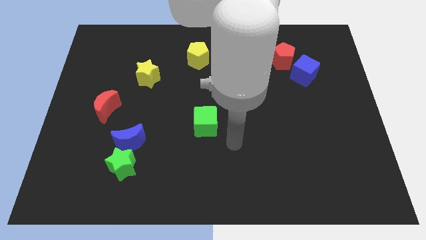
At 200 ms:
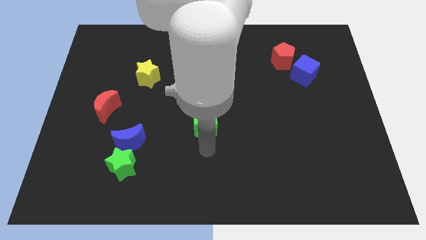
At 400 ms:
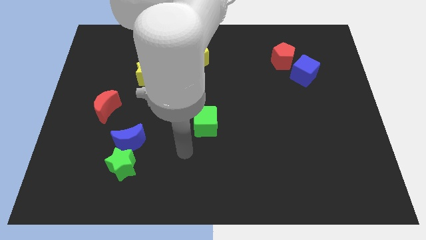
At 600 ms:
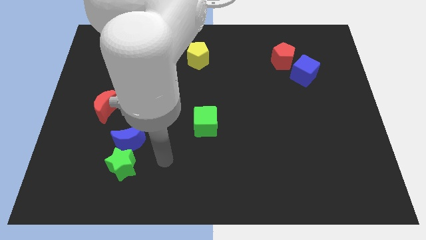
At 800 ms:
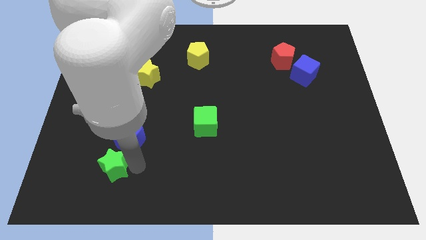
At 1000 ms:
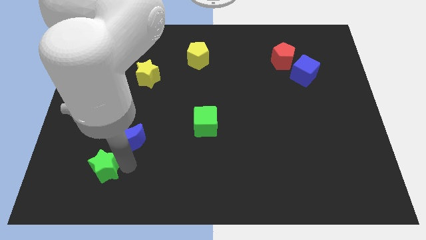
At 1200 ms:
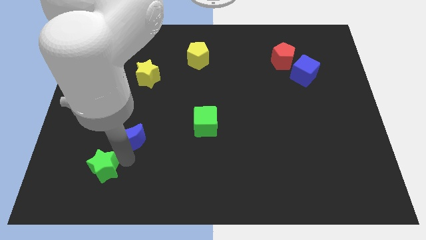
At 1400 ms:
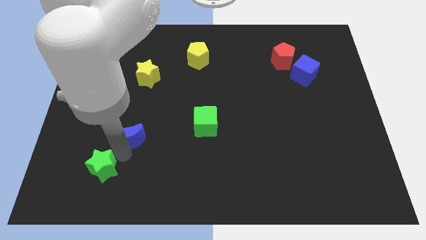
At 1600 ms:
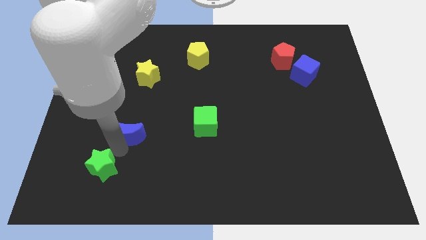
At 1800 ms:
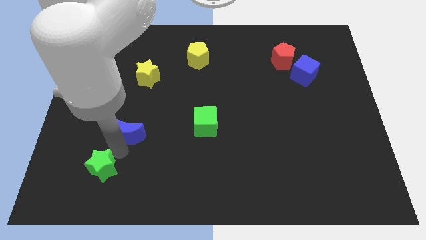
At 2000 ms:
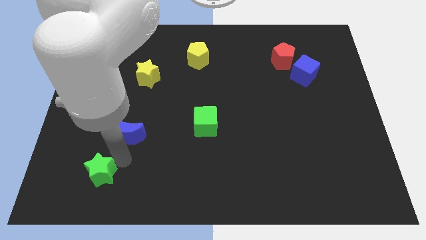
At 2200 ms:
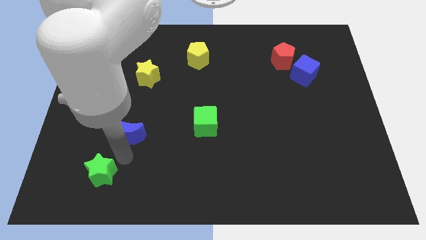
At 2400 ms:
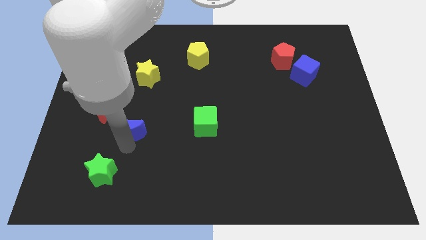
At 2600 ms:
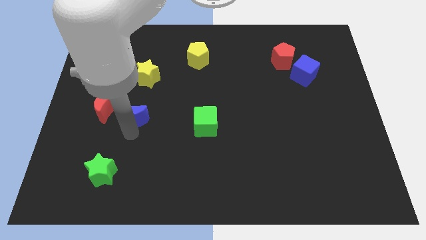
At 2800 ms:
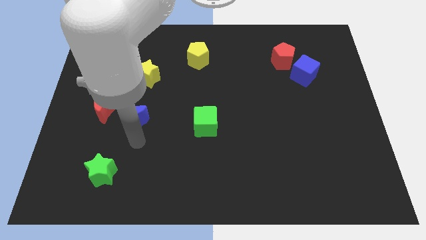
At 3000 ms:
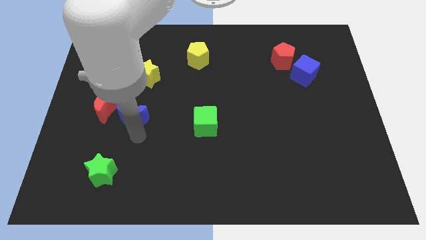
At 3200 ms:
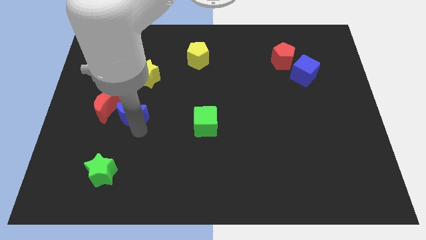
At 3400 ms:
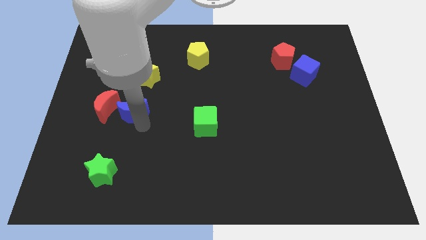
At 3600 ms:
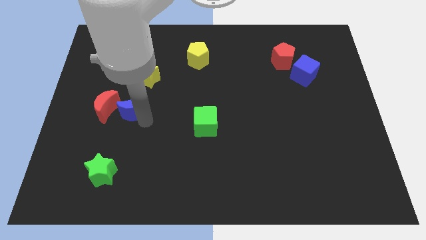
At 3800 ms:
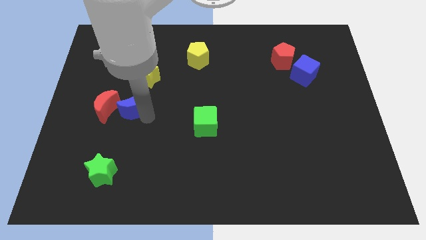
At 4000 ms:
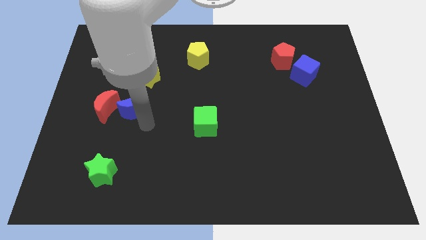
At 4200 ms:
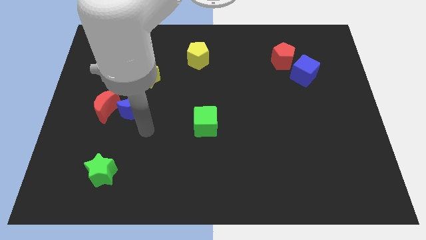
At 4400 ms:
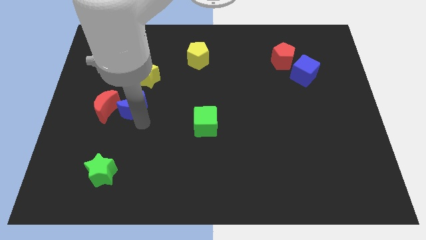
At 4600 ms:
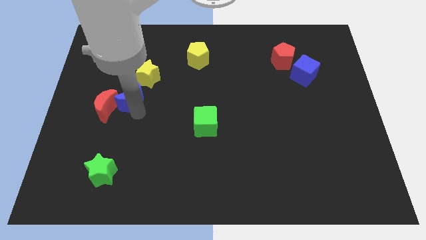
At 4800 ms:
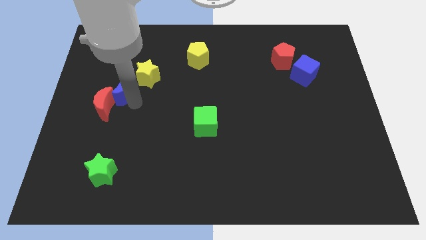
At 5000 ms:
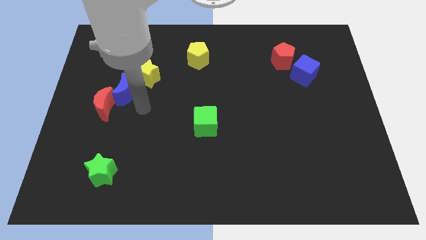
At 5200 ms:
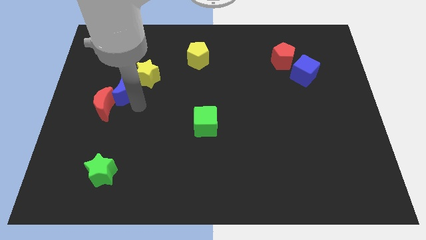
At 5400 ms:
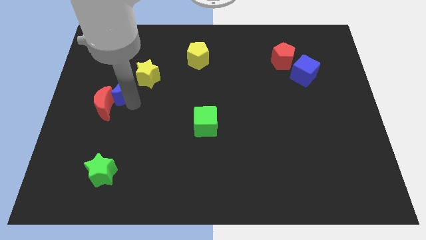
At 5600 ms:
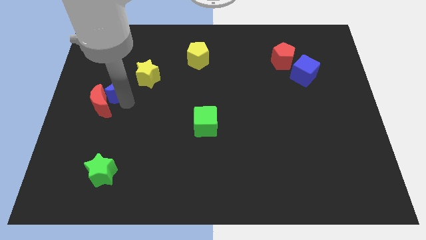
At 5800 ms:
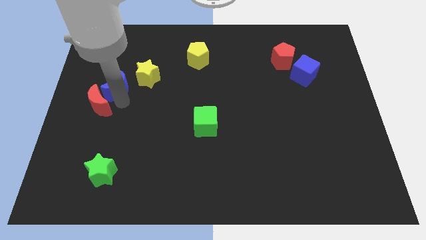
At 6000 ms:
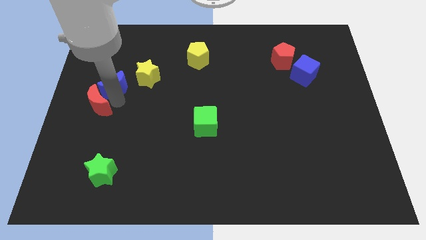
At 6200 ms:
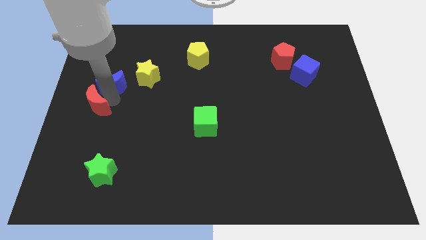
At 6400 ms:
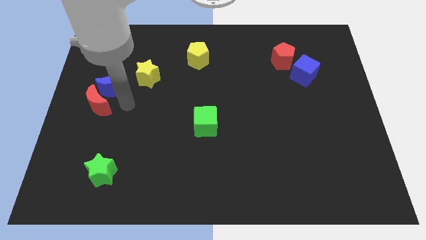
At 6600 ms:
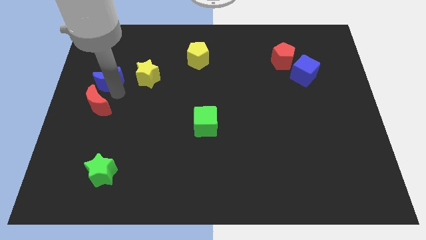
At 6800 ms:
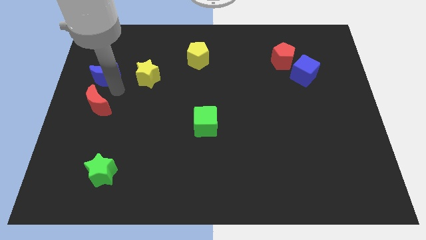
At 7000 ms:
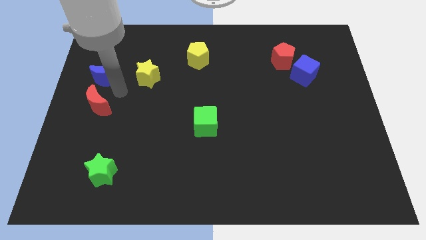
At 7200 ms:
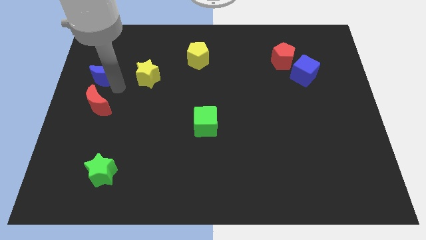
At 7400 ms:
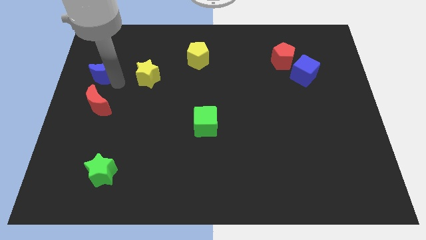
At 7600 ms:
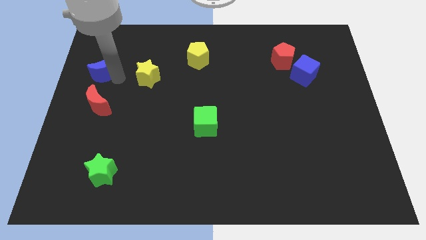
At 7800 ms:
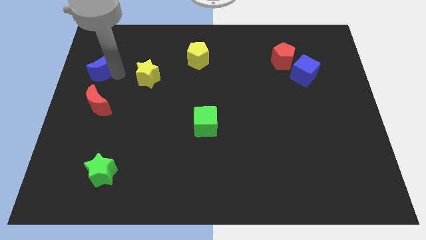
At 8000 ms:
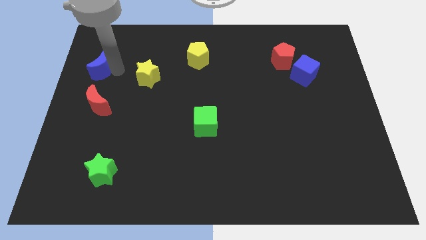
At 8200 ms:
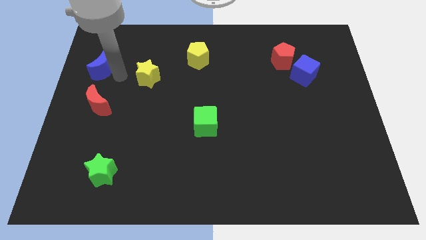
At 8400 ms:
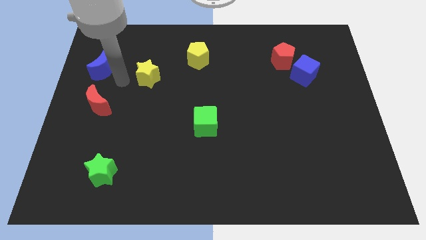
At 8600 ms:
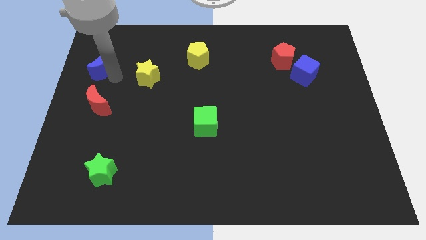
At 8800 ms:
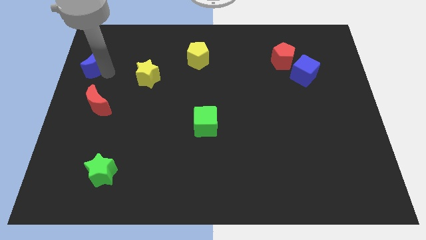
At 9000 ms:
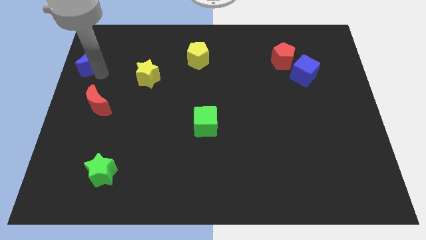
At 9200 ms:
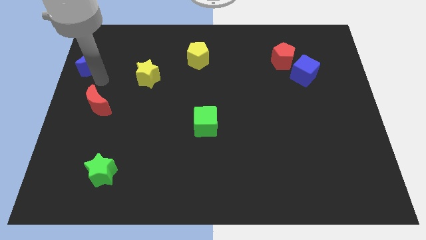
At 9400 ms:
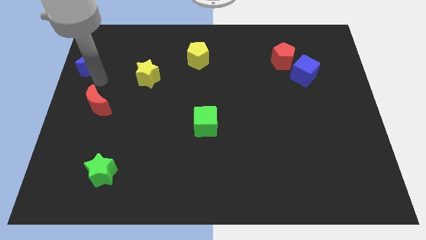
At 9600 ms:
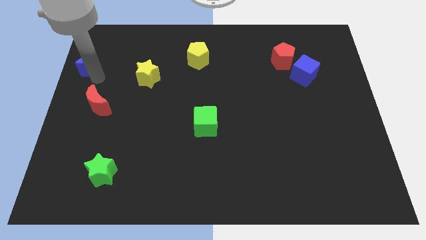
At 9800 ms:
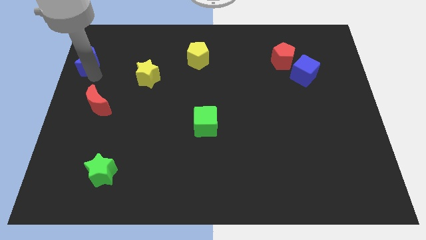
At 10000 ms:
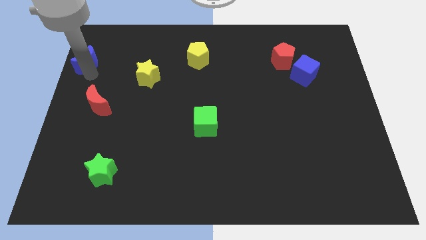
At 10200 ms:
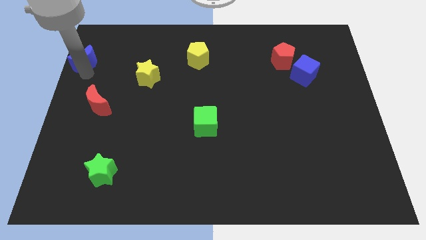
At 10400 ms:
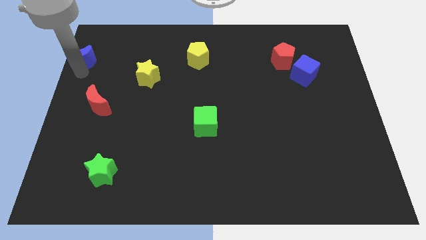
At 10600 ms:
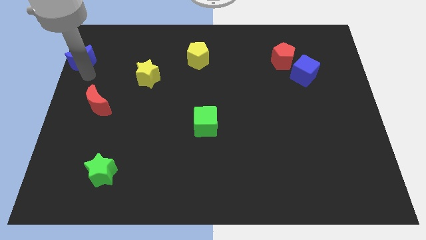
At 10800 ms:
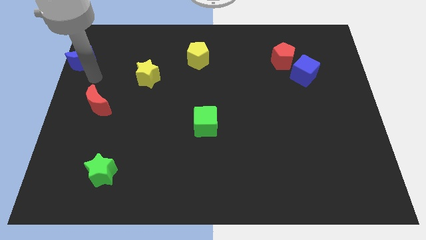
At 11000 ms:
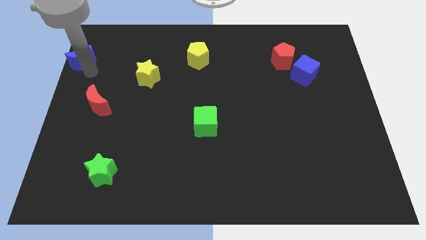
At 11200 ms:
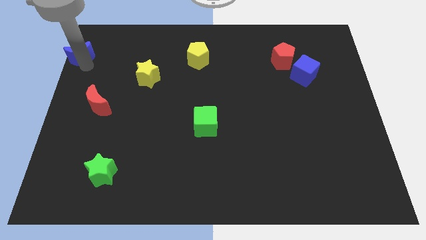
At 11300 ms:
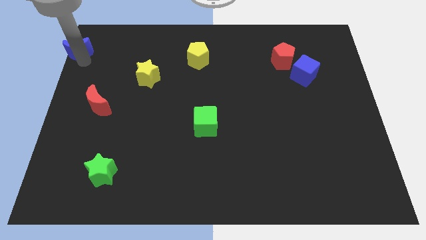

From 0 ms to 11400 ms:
put the blue moon to the top left of the board

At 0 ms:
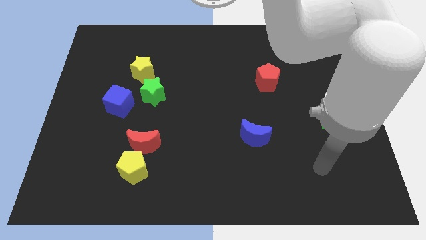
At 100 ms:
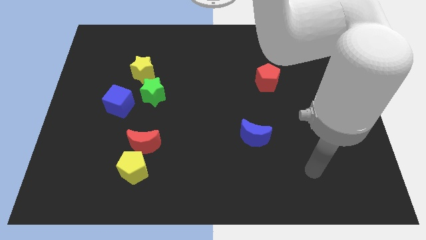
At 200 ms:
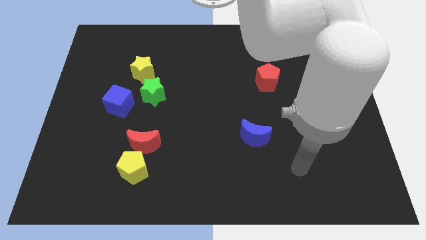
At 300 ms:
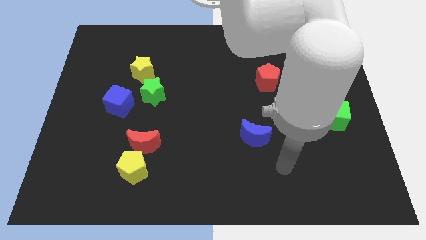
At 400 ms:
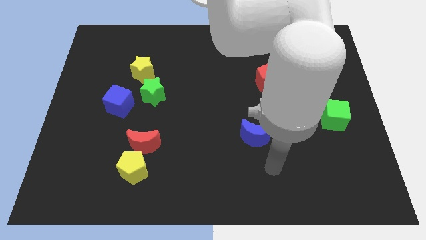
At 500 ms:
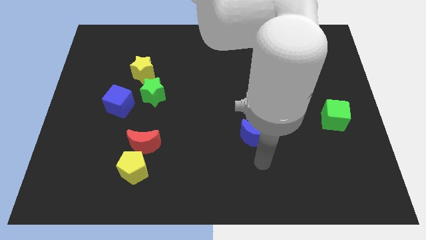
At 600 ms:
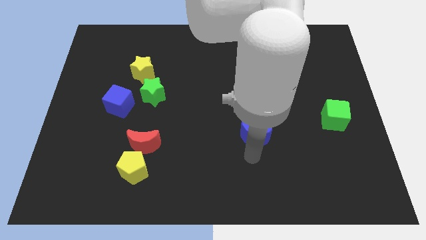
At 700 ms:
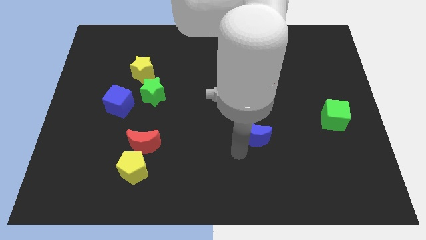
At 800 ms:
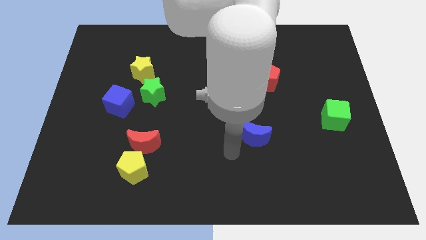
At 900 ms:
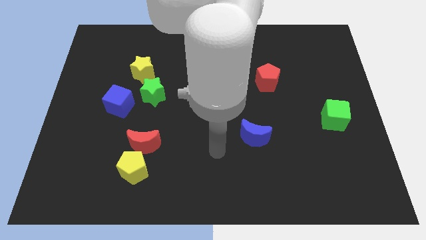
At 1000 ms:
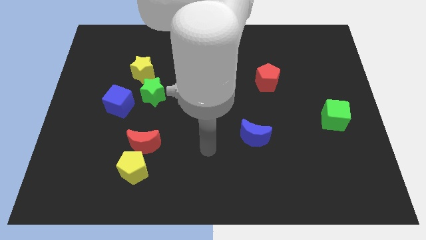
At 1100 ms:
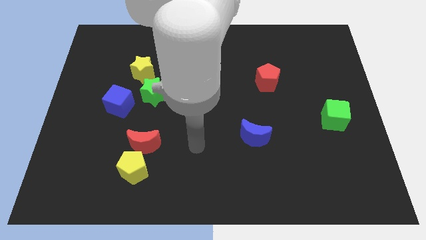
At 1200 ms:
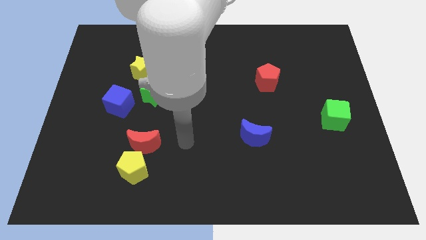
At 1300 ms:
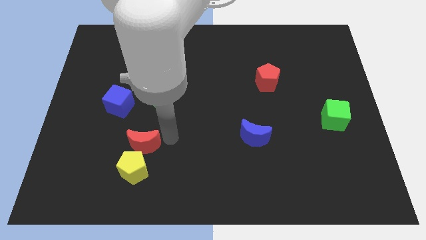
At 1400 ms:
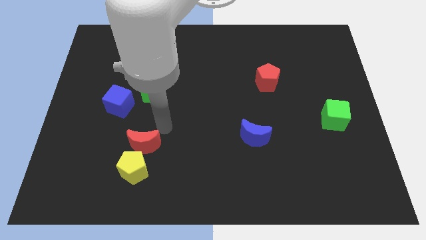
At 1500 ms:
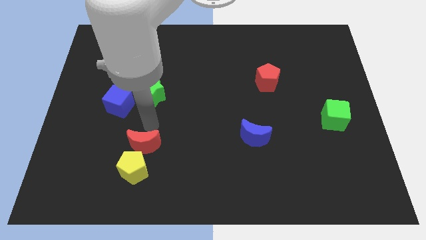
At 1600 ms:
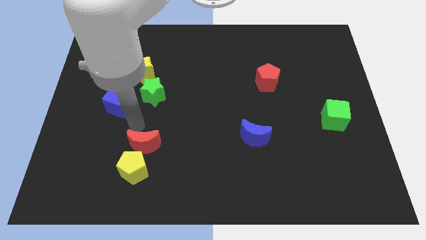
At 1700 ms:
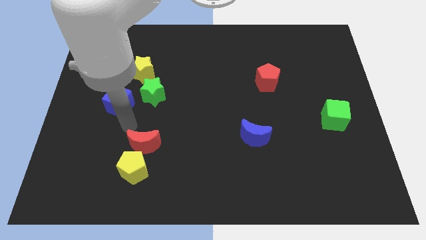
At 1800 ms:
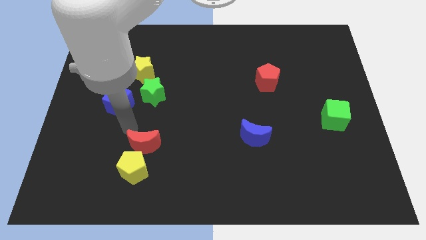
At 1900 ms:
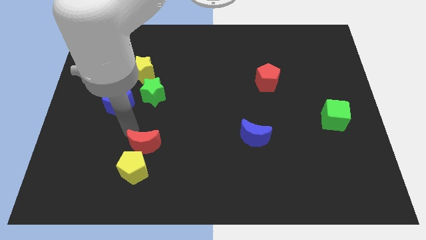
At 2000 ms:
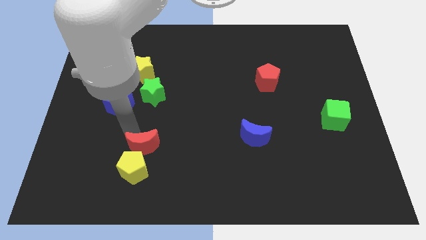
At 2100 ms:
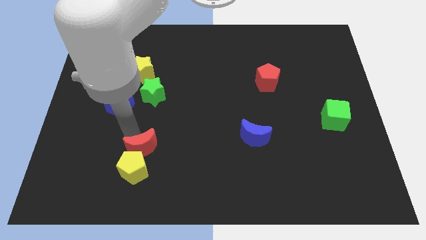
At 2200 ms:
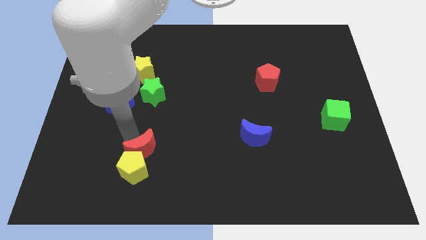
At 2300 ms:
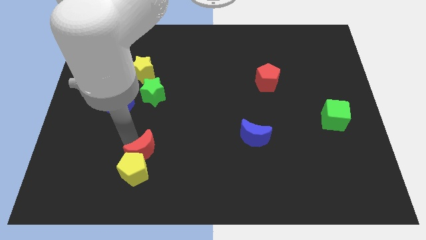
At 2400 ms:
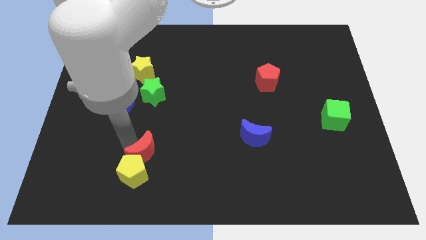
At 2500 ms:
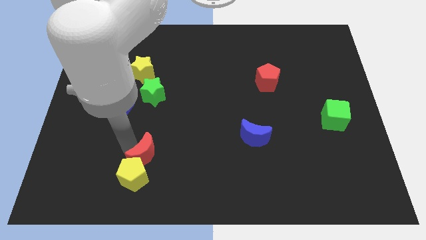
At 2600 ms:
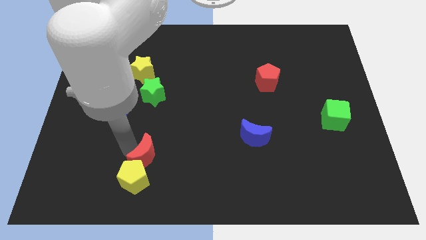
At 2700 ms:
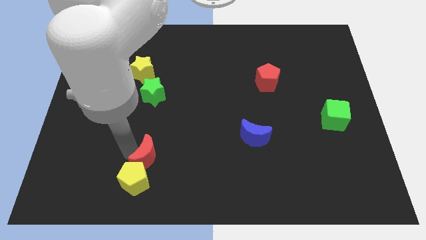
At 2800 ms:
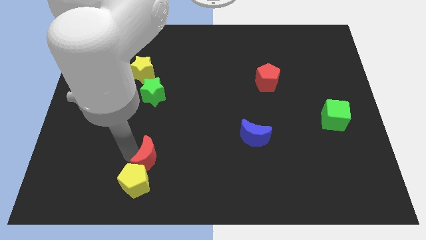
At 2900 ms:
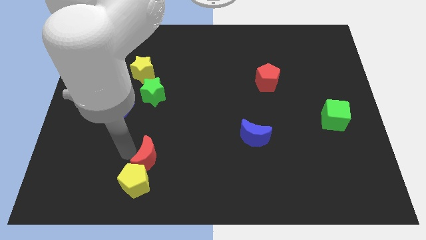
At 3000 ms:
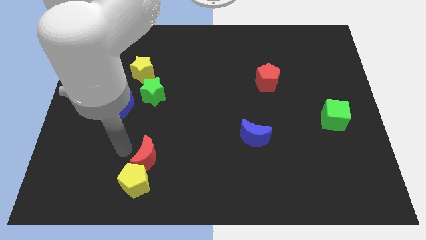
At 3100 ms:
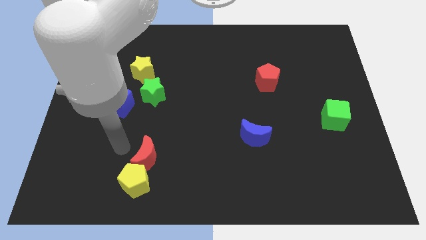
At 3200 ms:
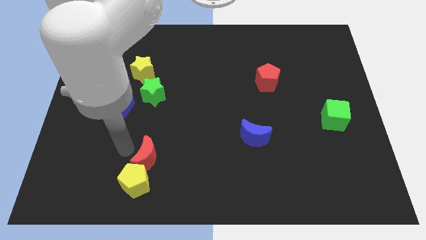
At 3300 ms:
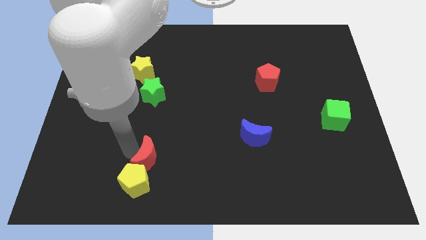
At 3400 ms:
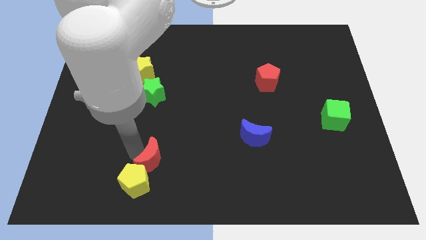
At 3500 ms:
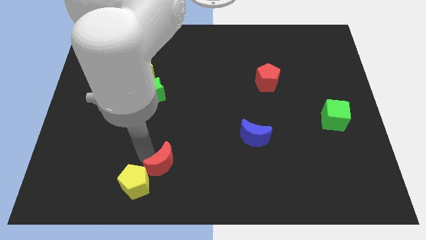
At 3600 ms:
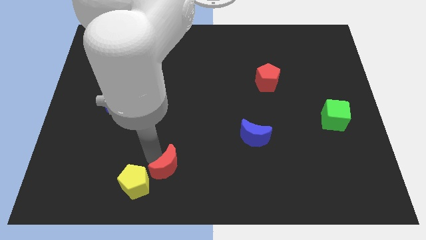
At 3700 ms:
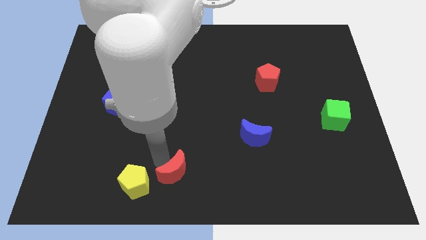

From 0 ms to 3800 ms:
move the red moon to the bottom
